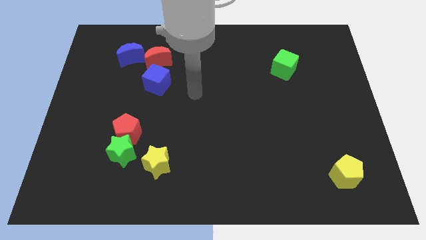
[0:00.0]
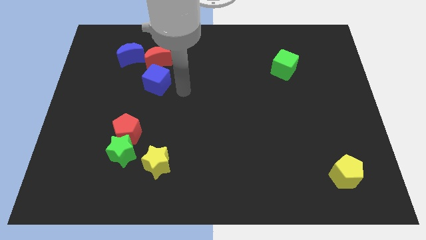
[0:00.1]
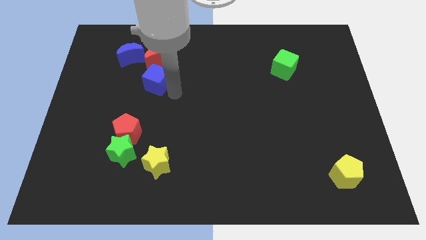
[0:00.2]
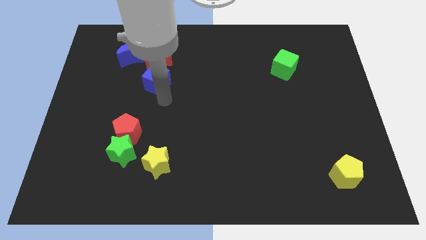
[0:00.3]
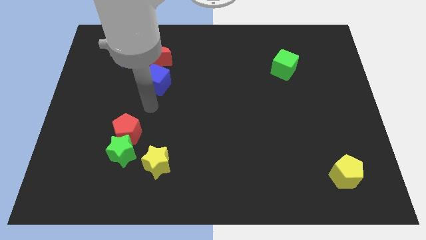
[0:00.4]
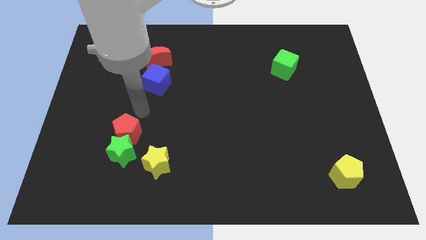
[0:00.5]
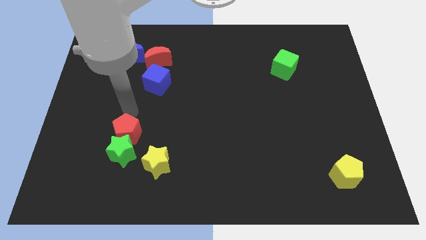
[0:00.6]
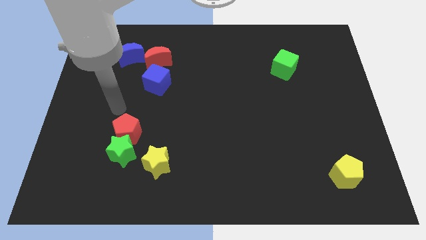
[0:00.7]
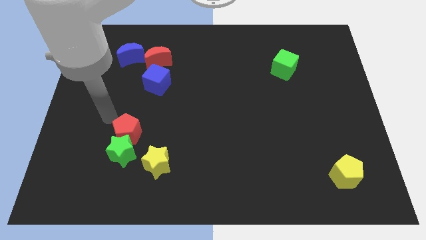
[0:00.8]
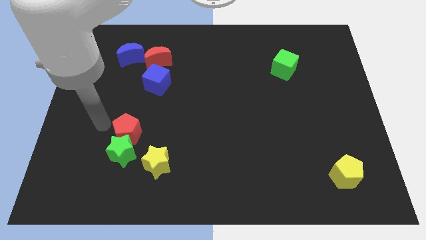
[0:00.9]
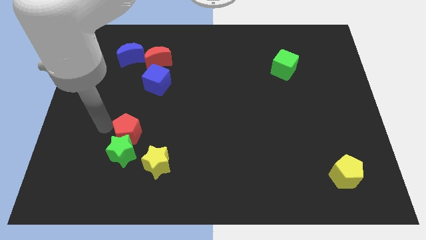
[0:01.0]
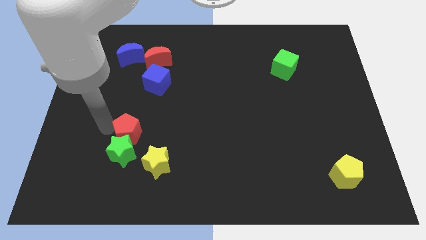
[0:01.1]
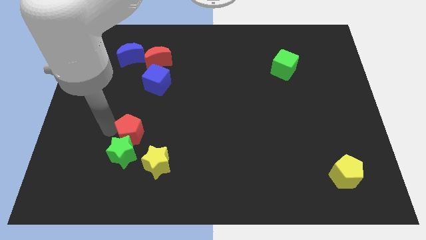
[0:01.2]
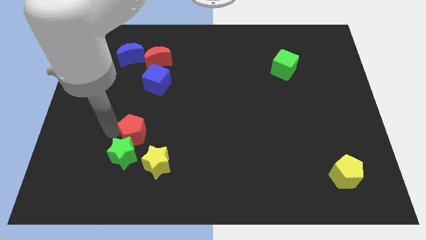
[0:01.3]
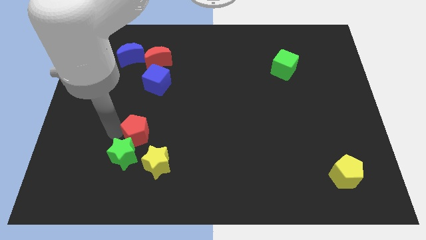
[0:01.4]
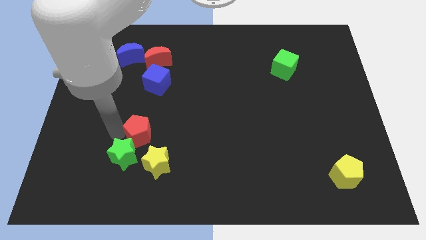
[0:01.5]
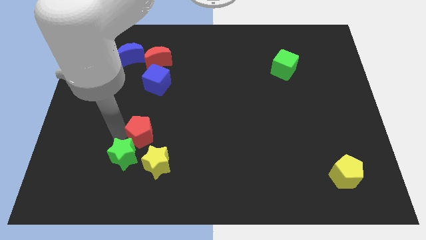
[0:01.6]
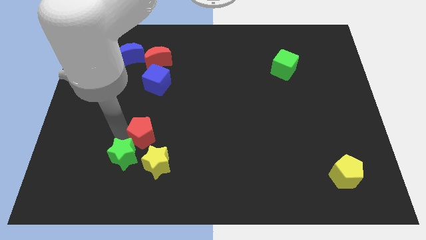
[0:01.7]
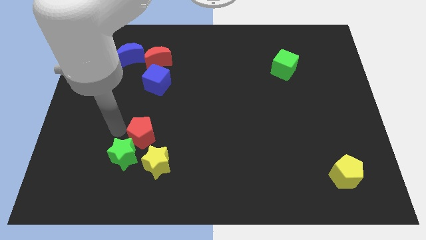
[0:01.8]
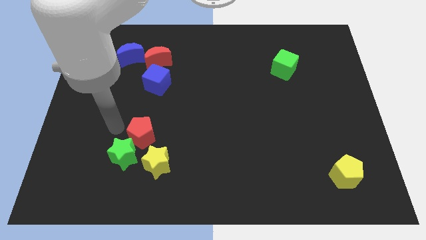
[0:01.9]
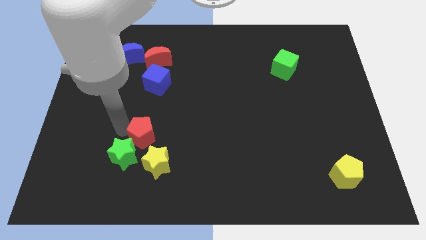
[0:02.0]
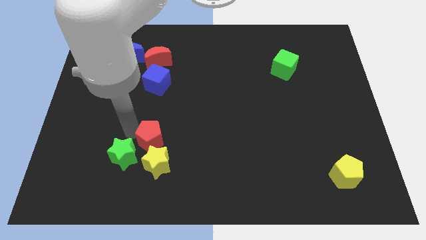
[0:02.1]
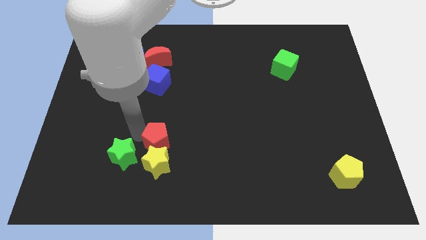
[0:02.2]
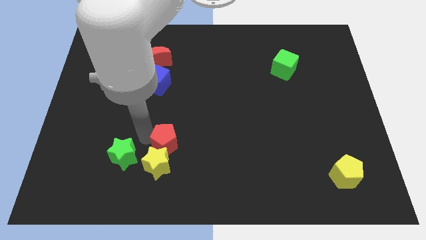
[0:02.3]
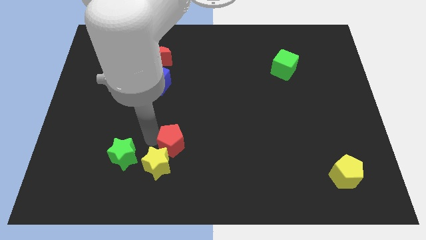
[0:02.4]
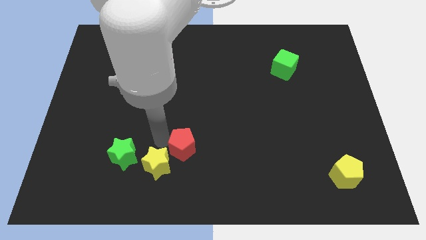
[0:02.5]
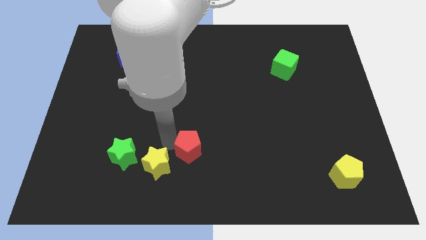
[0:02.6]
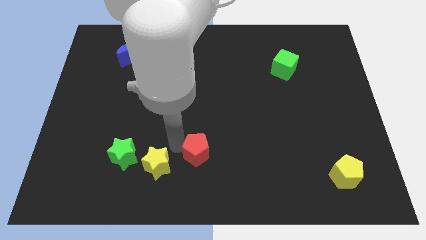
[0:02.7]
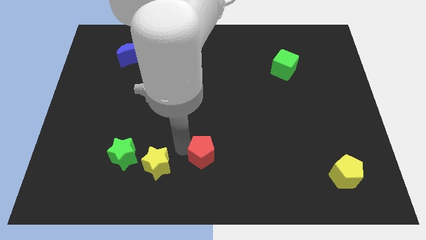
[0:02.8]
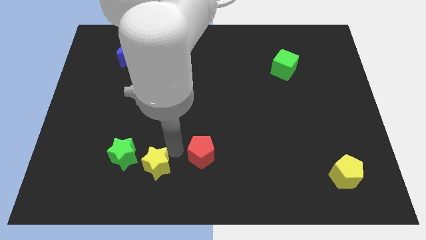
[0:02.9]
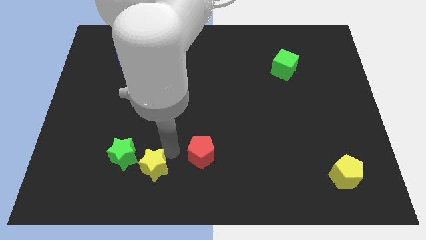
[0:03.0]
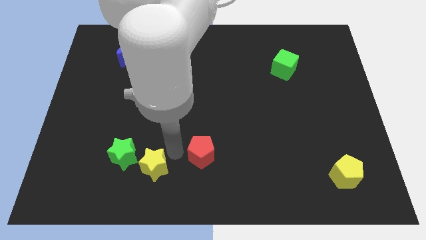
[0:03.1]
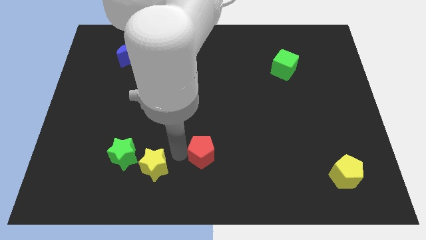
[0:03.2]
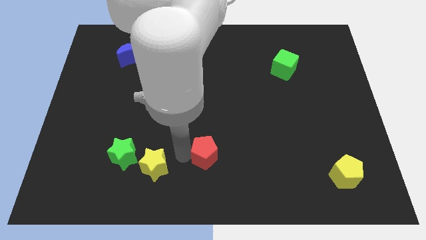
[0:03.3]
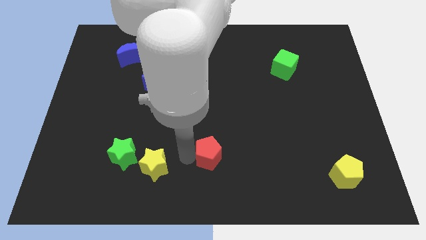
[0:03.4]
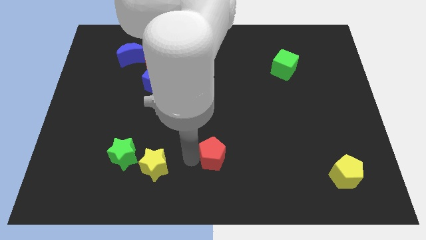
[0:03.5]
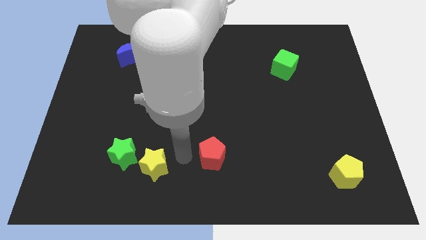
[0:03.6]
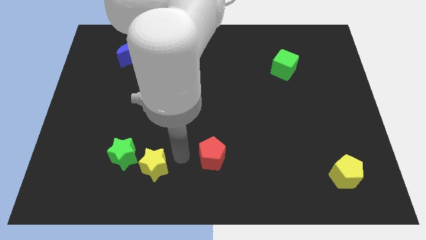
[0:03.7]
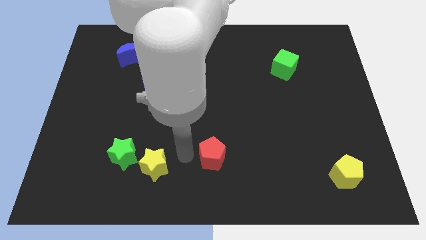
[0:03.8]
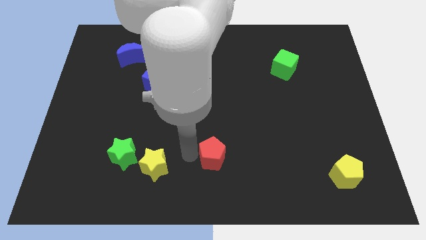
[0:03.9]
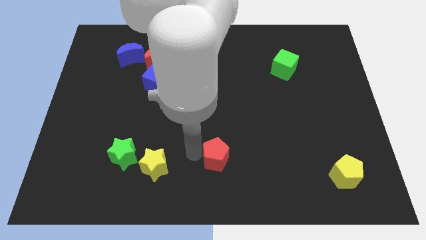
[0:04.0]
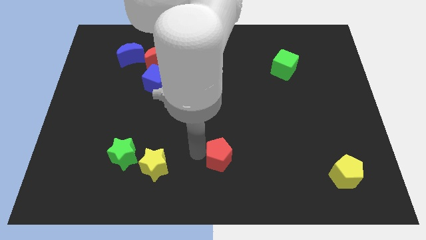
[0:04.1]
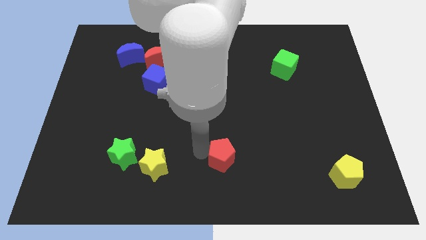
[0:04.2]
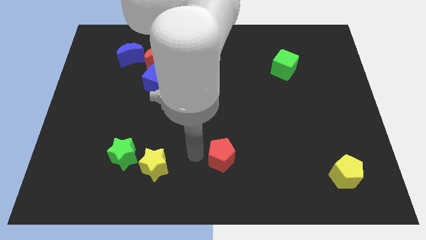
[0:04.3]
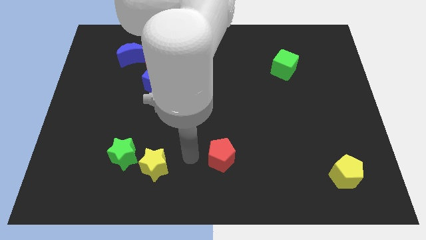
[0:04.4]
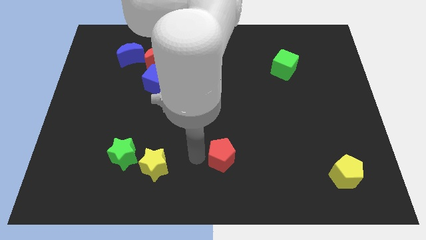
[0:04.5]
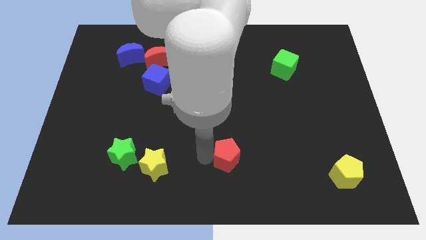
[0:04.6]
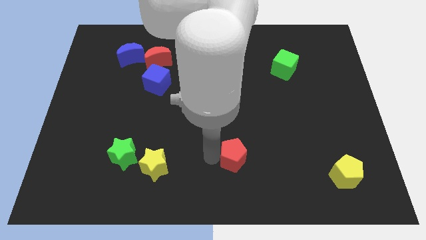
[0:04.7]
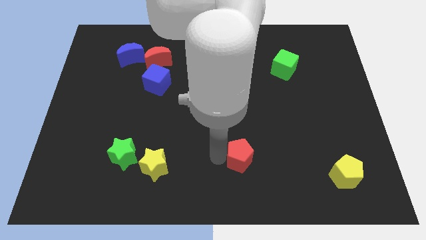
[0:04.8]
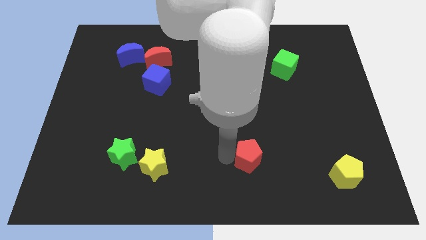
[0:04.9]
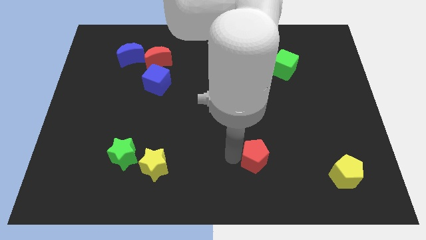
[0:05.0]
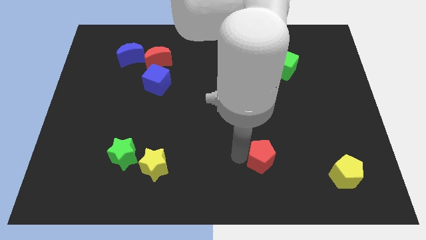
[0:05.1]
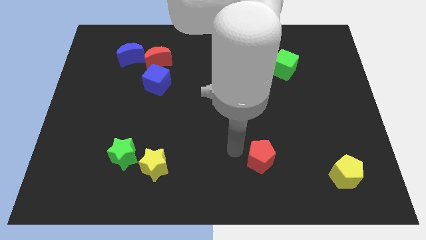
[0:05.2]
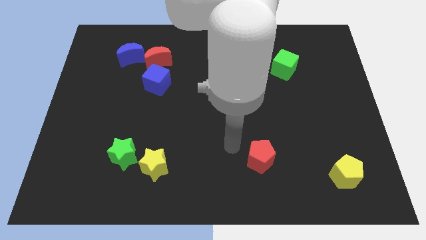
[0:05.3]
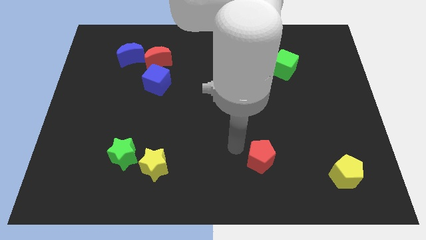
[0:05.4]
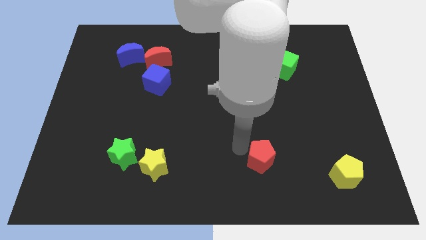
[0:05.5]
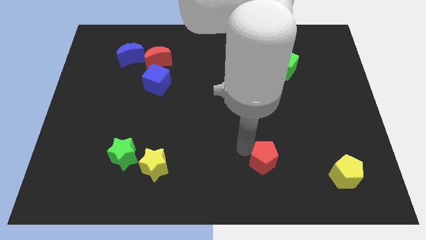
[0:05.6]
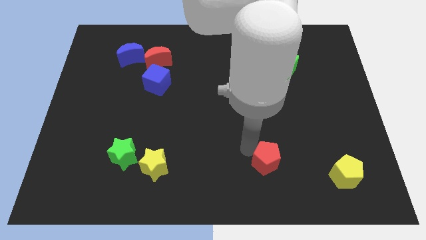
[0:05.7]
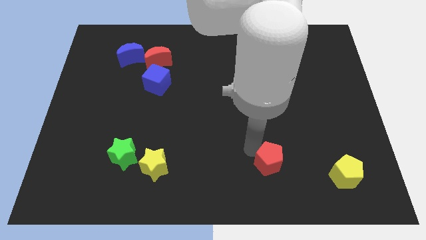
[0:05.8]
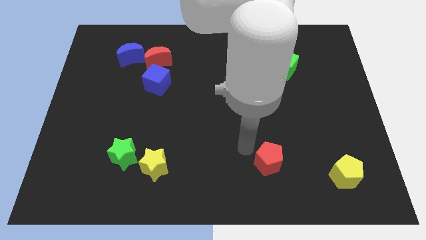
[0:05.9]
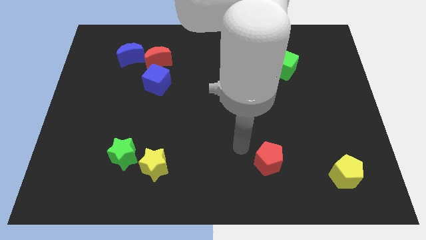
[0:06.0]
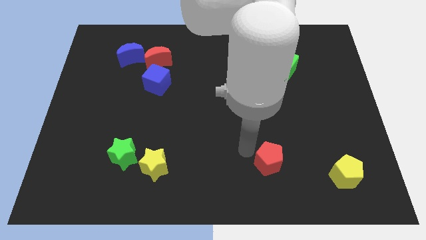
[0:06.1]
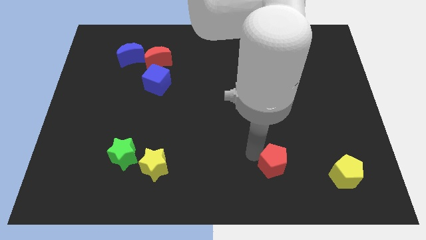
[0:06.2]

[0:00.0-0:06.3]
put the red pentagon to the left side of the yellow pentagon

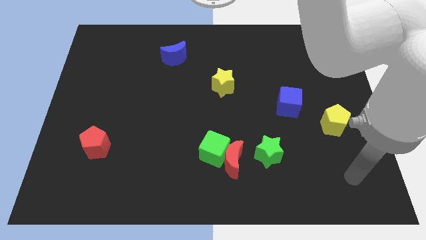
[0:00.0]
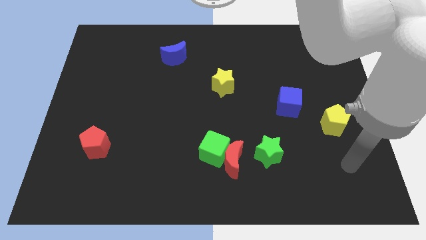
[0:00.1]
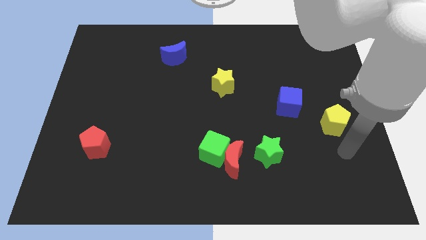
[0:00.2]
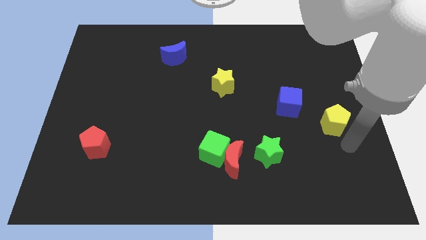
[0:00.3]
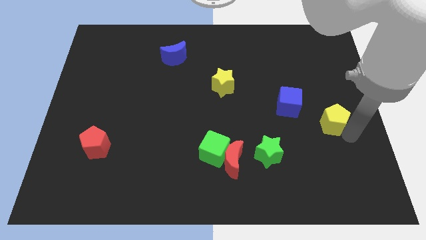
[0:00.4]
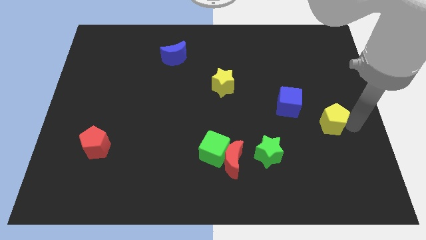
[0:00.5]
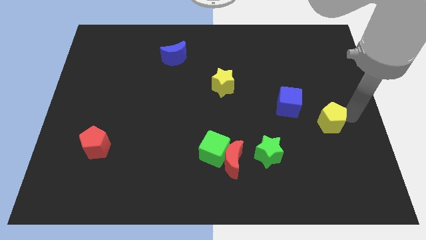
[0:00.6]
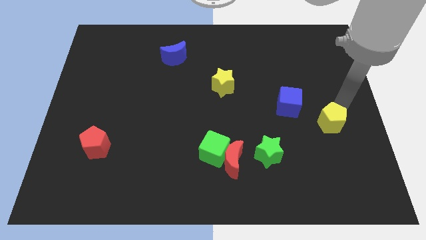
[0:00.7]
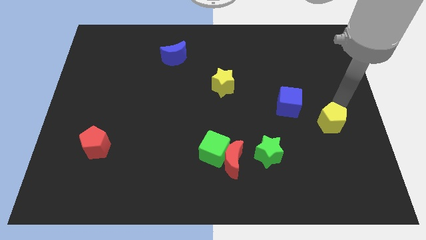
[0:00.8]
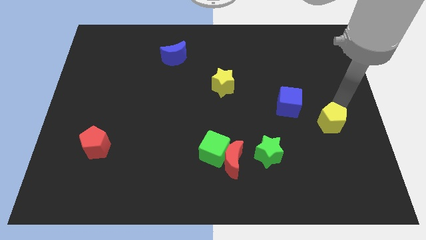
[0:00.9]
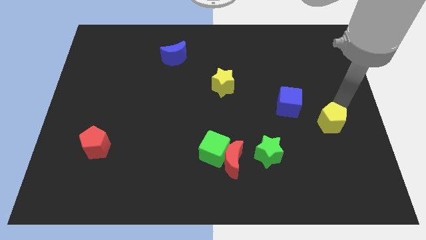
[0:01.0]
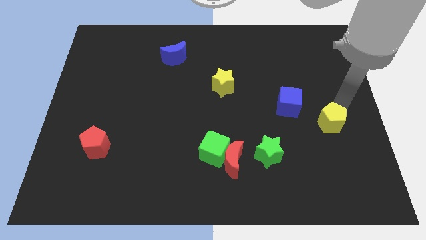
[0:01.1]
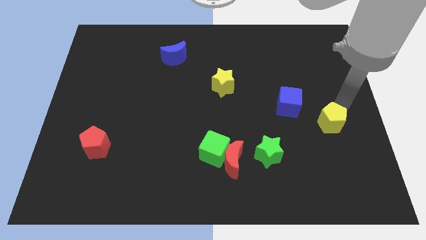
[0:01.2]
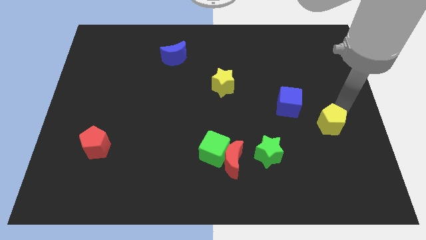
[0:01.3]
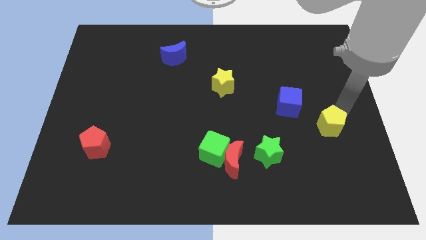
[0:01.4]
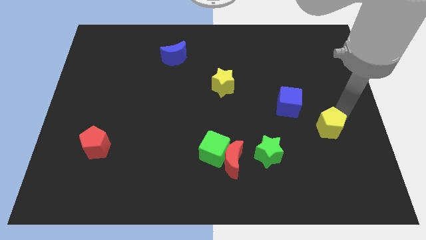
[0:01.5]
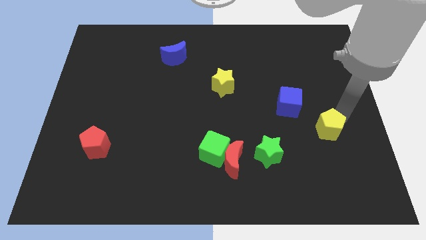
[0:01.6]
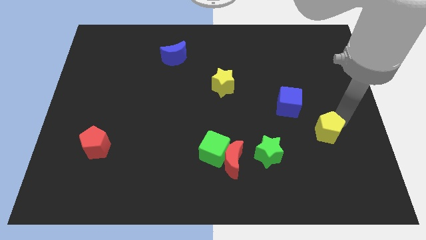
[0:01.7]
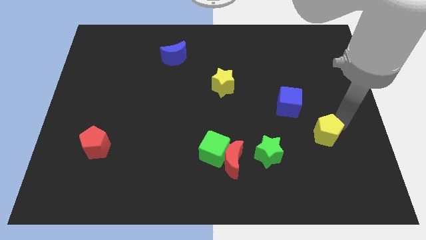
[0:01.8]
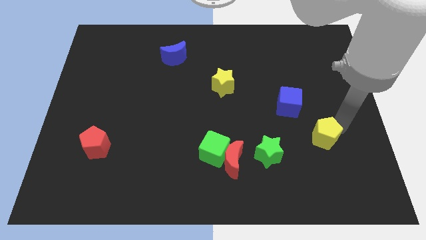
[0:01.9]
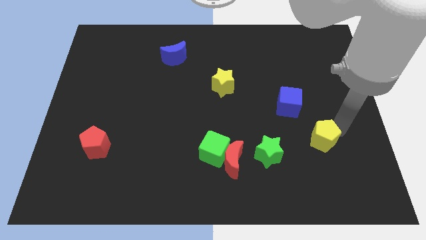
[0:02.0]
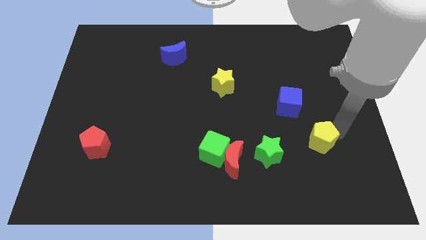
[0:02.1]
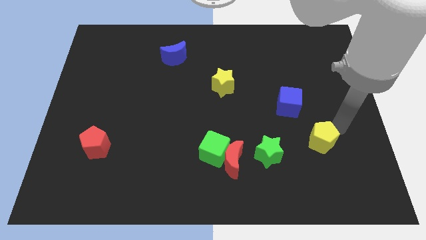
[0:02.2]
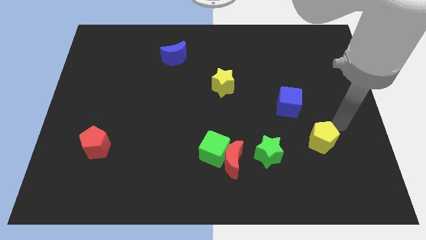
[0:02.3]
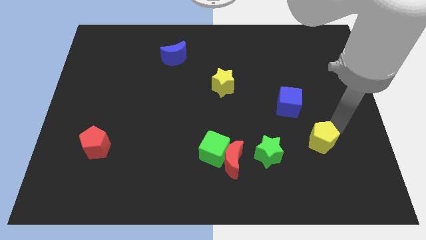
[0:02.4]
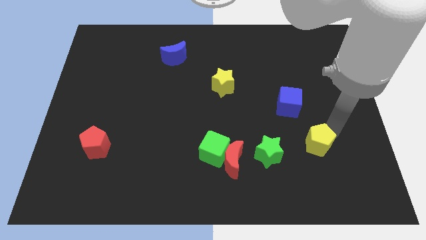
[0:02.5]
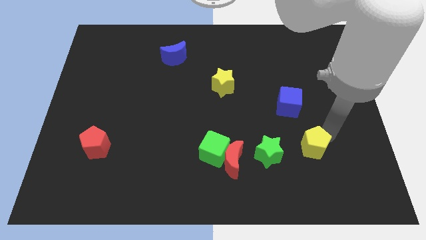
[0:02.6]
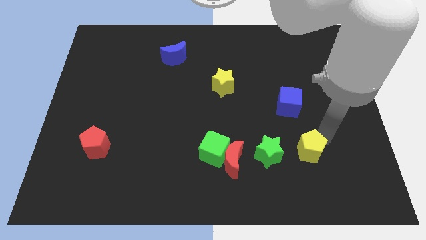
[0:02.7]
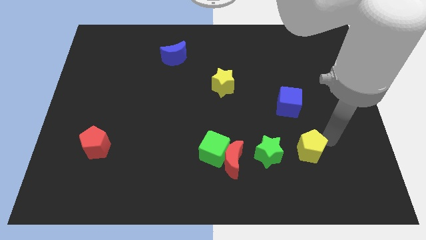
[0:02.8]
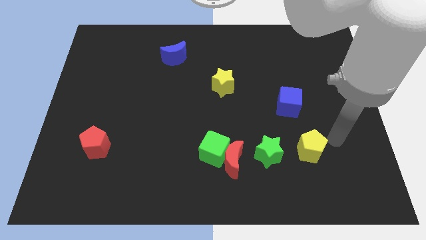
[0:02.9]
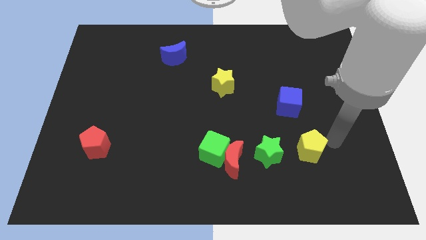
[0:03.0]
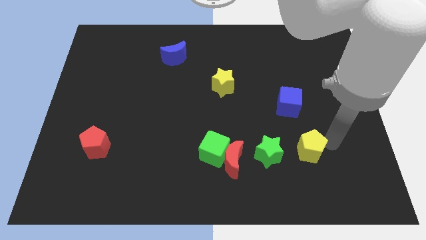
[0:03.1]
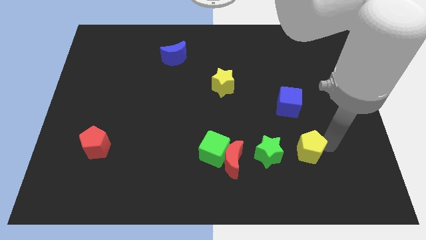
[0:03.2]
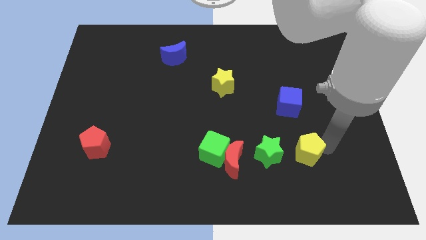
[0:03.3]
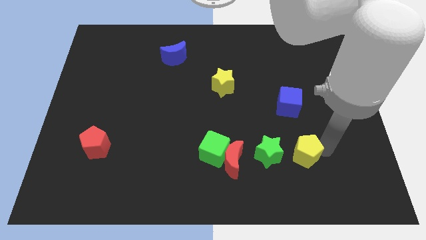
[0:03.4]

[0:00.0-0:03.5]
slide the yellow pentagon to the right of the red moon
